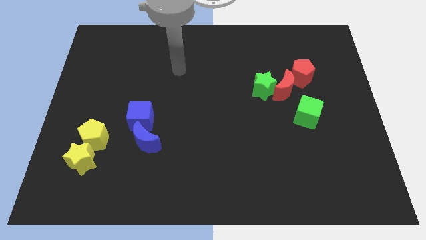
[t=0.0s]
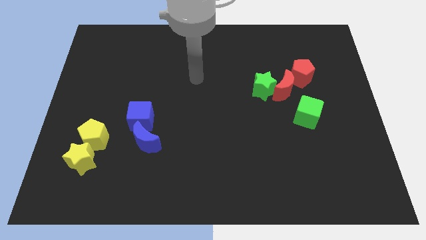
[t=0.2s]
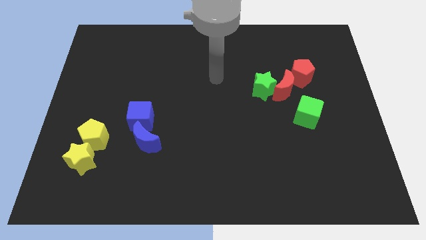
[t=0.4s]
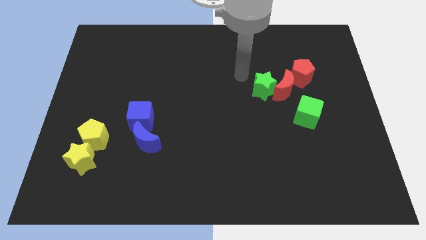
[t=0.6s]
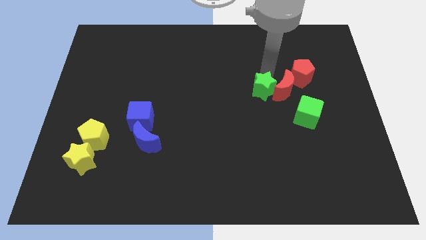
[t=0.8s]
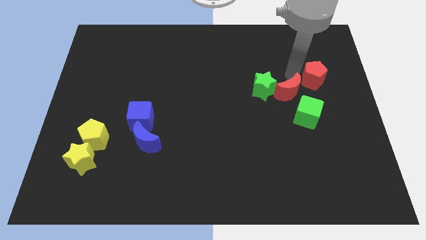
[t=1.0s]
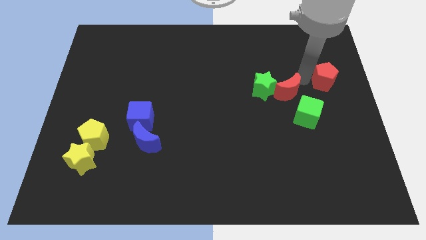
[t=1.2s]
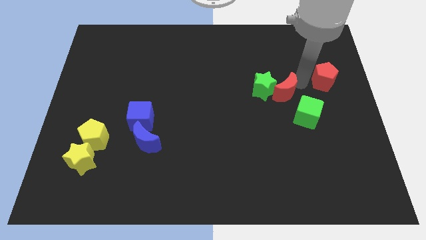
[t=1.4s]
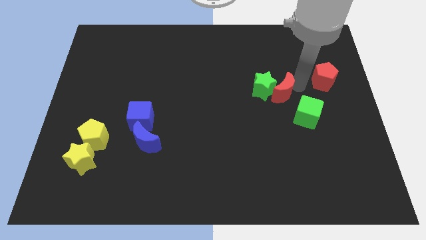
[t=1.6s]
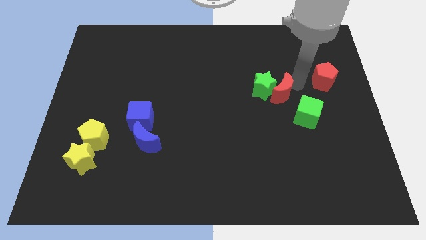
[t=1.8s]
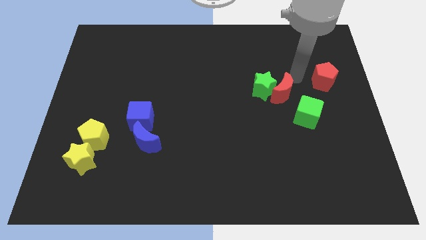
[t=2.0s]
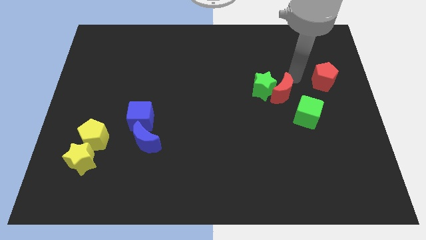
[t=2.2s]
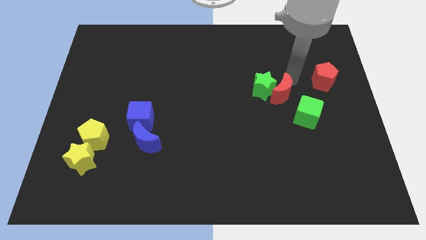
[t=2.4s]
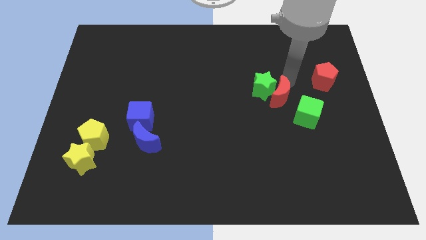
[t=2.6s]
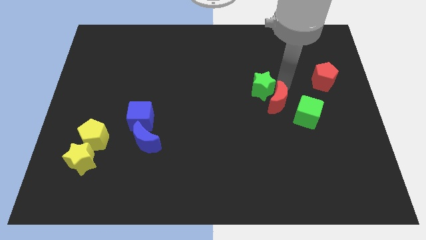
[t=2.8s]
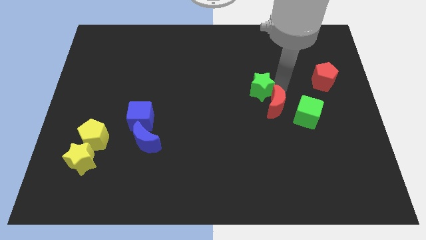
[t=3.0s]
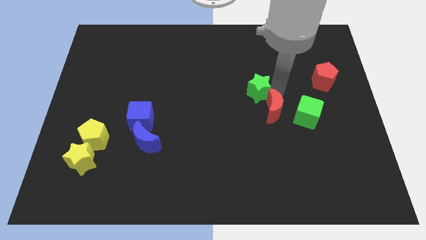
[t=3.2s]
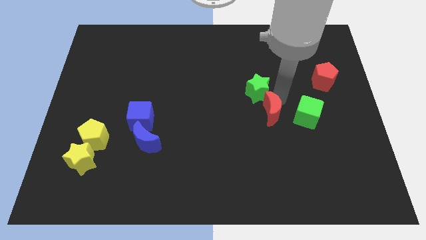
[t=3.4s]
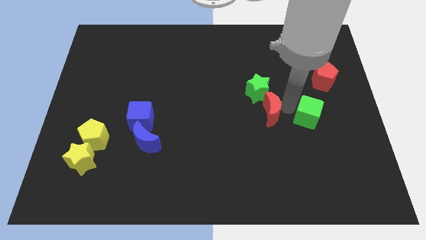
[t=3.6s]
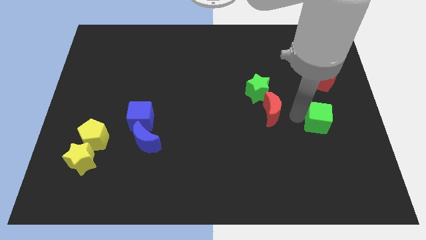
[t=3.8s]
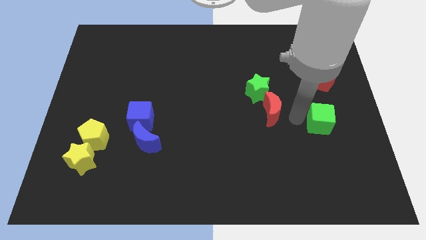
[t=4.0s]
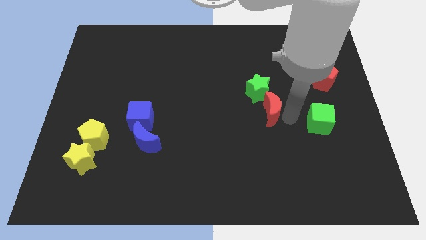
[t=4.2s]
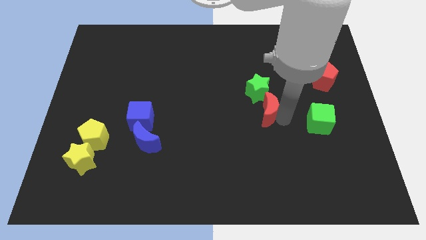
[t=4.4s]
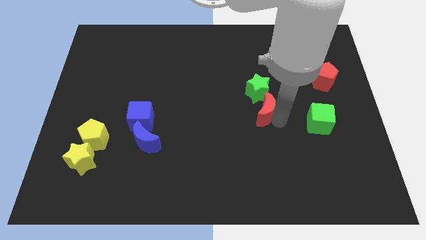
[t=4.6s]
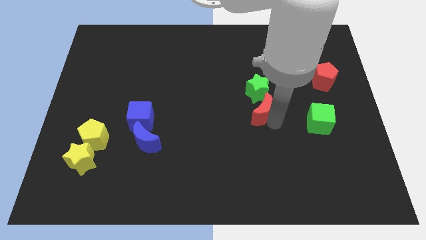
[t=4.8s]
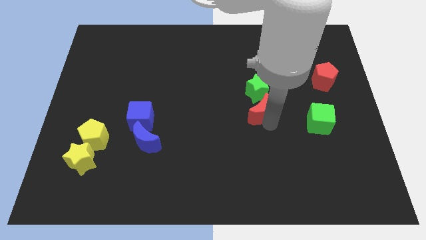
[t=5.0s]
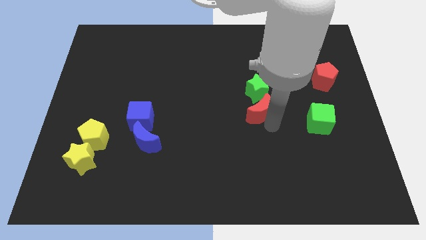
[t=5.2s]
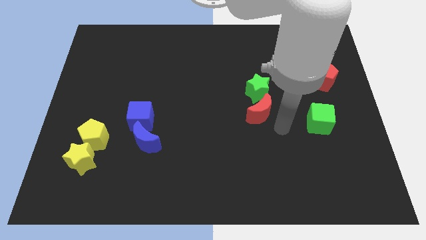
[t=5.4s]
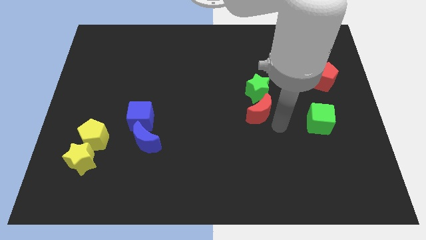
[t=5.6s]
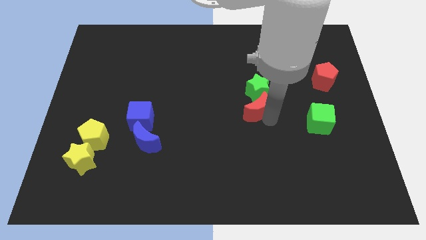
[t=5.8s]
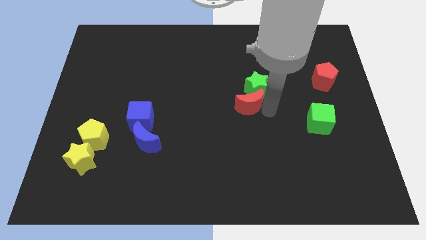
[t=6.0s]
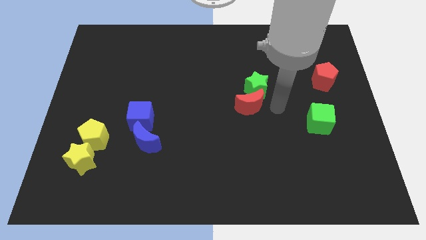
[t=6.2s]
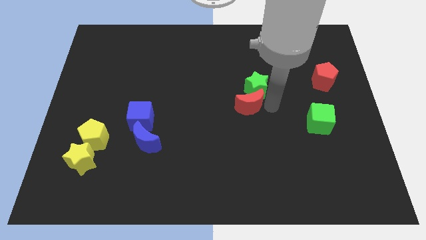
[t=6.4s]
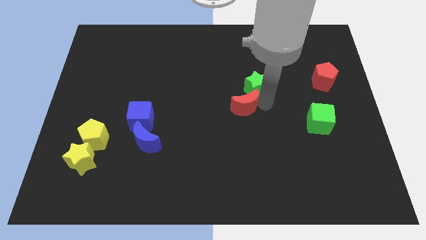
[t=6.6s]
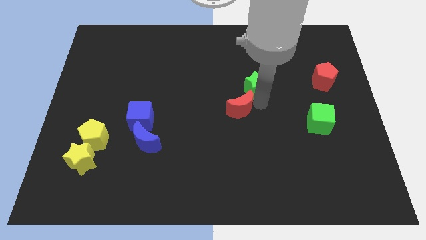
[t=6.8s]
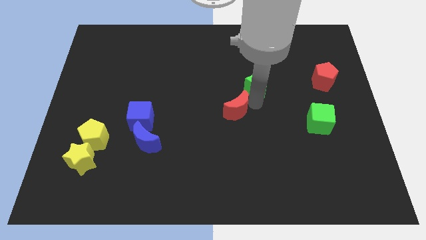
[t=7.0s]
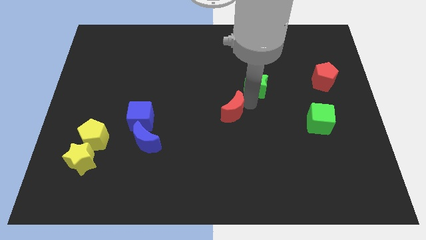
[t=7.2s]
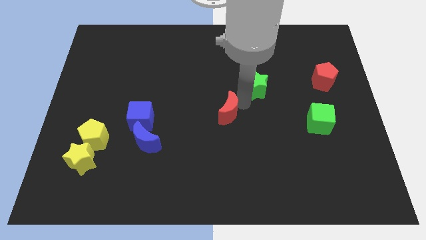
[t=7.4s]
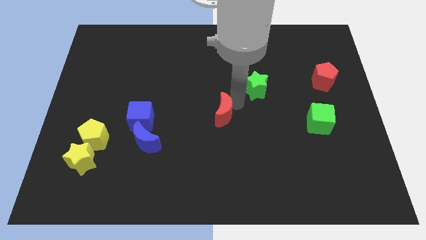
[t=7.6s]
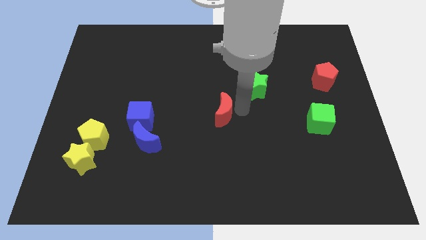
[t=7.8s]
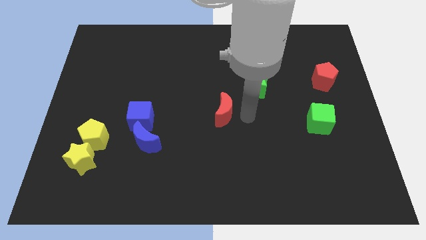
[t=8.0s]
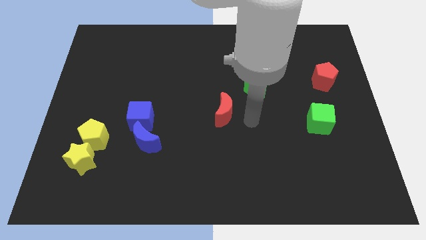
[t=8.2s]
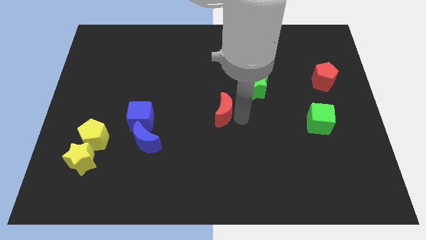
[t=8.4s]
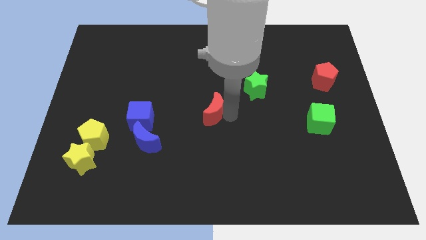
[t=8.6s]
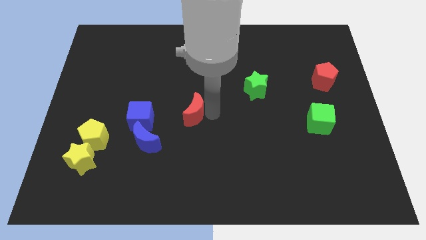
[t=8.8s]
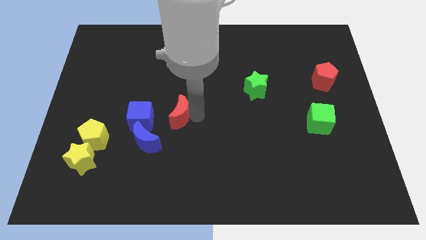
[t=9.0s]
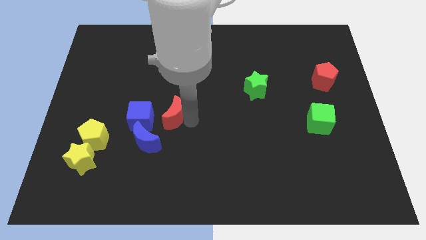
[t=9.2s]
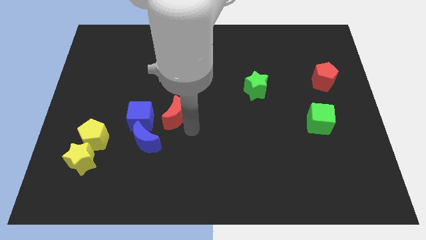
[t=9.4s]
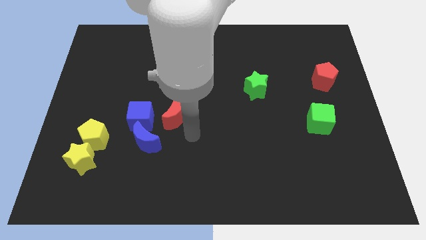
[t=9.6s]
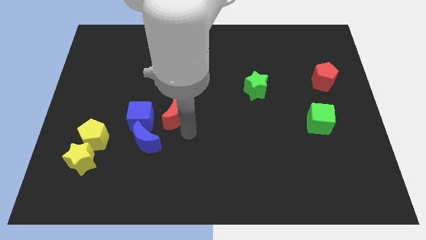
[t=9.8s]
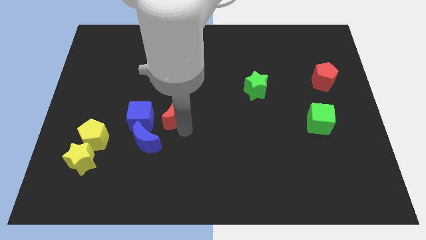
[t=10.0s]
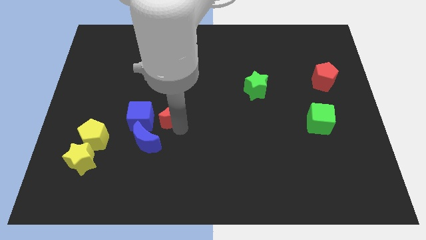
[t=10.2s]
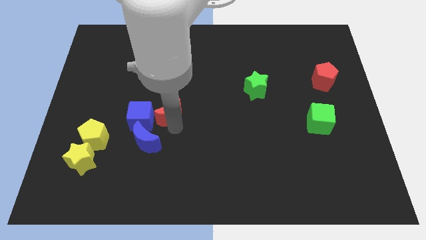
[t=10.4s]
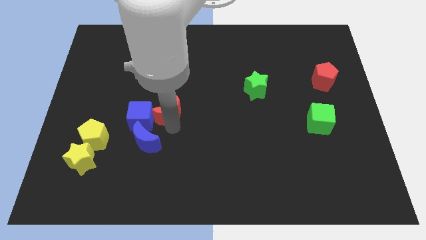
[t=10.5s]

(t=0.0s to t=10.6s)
slide the red moon to the top of the blue moon

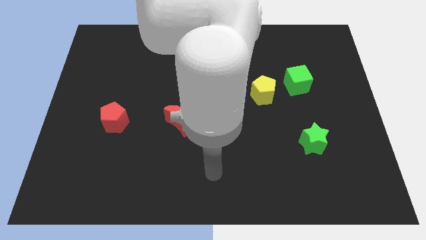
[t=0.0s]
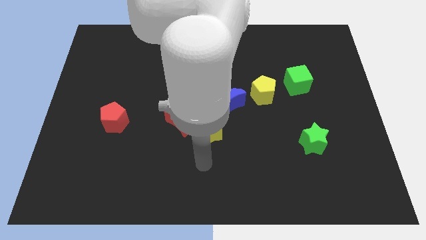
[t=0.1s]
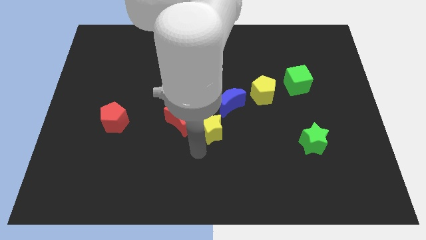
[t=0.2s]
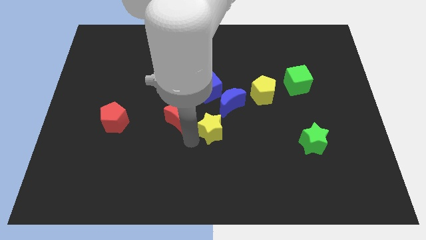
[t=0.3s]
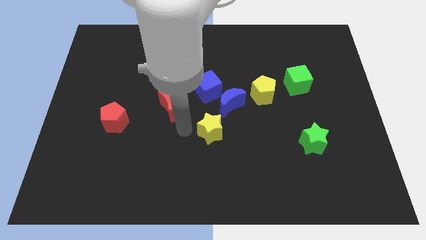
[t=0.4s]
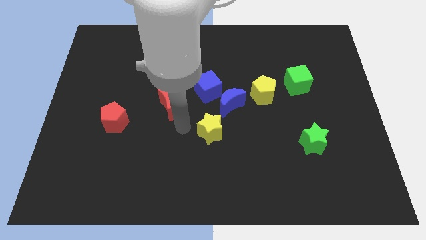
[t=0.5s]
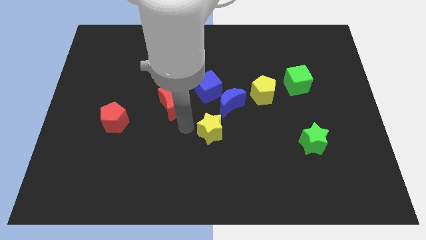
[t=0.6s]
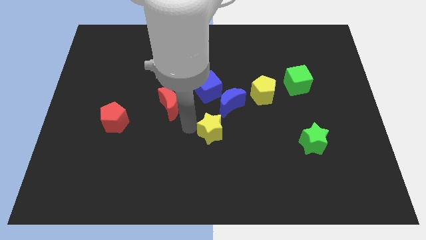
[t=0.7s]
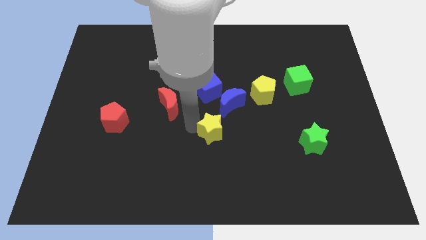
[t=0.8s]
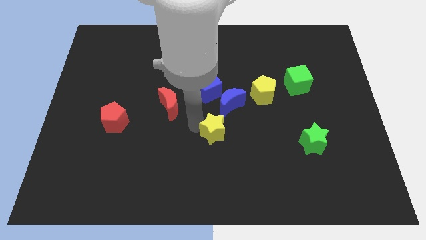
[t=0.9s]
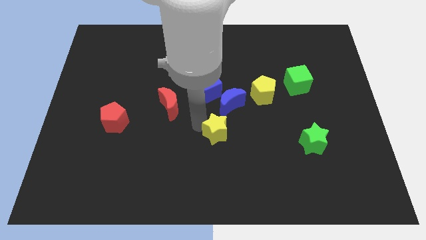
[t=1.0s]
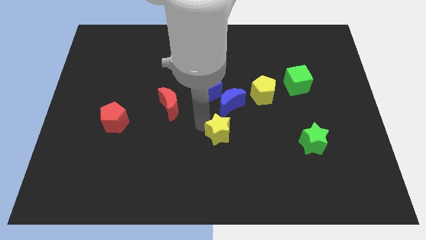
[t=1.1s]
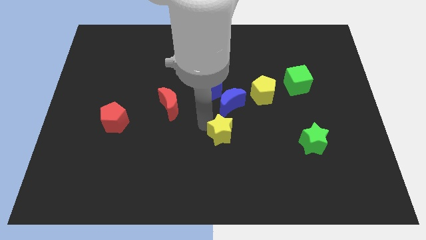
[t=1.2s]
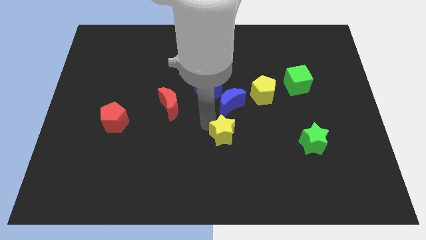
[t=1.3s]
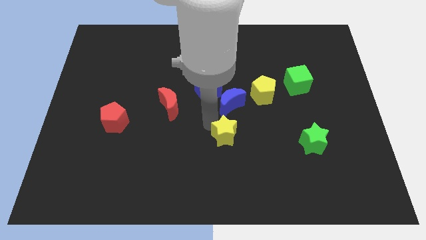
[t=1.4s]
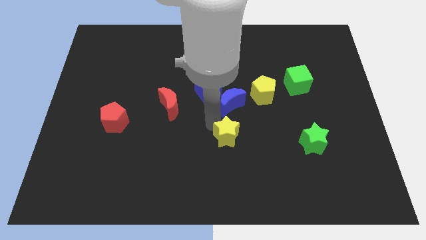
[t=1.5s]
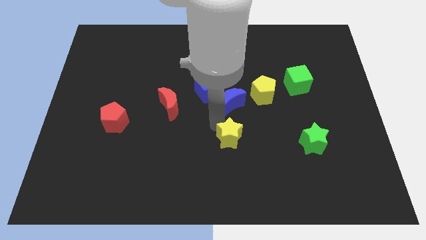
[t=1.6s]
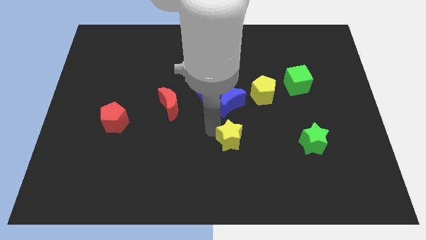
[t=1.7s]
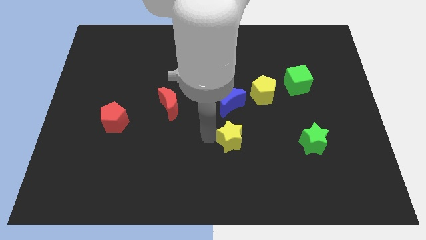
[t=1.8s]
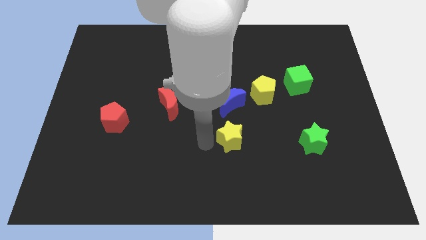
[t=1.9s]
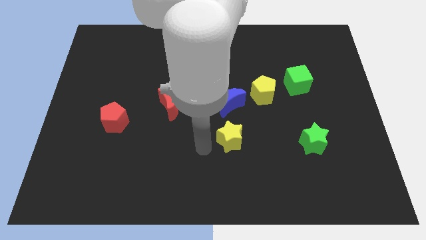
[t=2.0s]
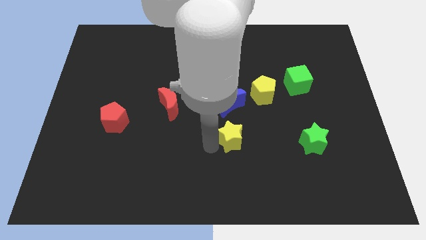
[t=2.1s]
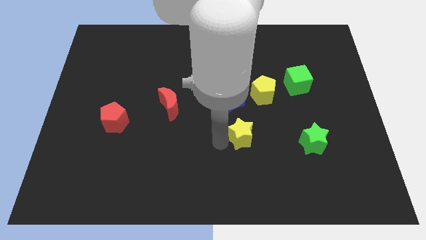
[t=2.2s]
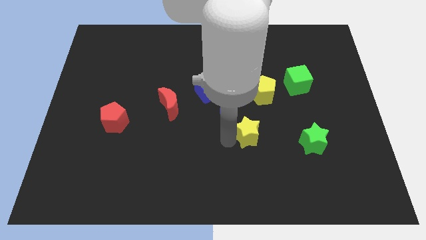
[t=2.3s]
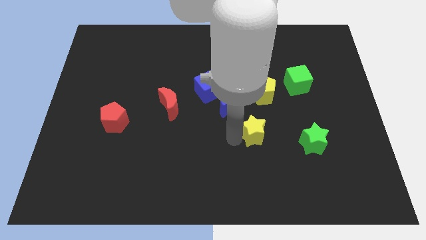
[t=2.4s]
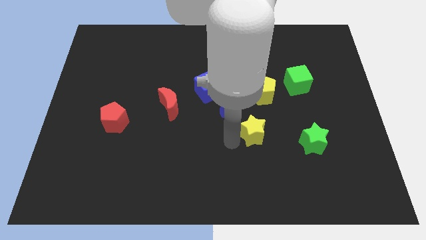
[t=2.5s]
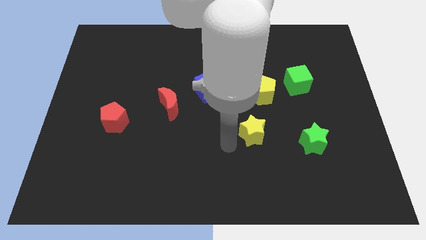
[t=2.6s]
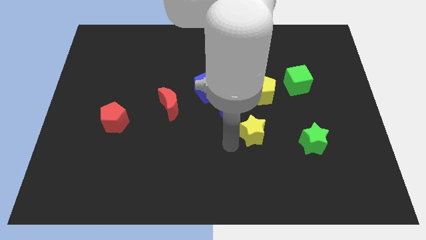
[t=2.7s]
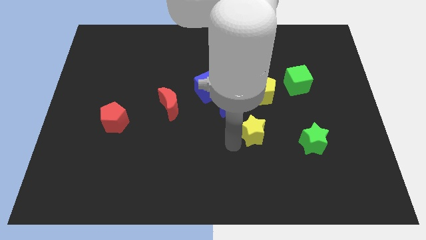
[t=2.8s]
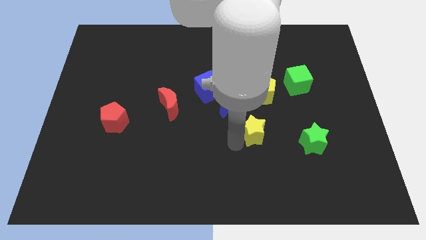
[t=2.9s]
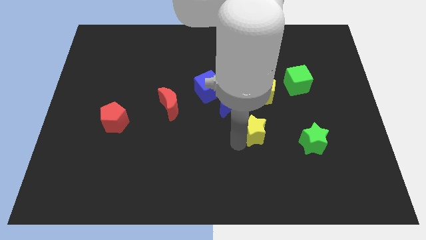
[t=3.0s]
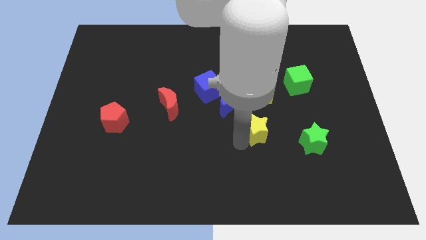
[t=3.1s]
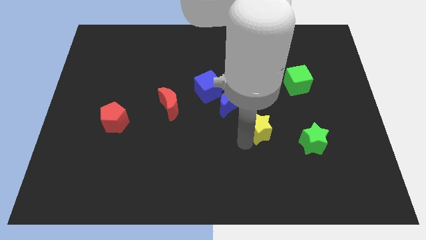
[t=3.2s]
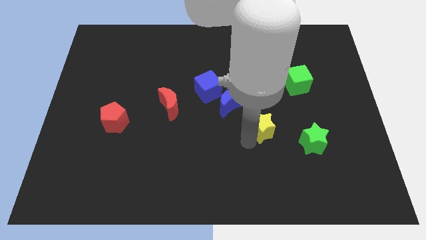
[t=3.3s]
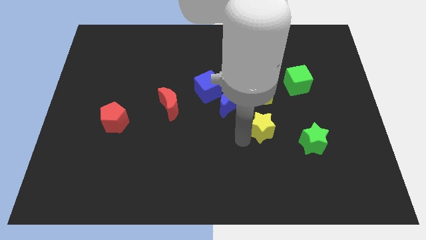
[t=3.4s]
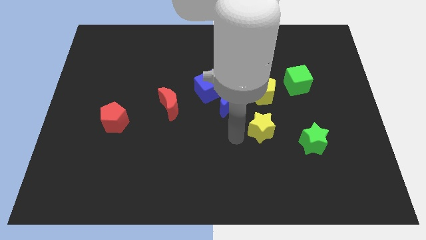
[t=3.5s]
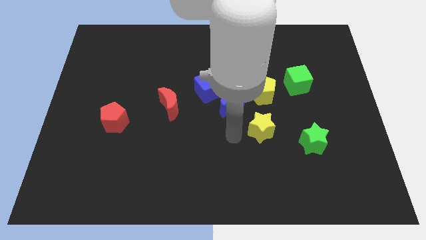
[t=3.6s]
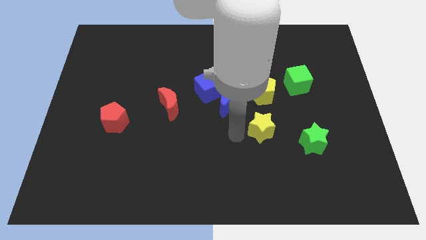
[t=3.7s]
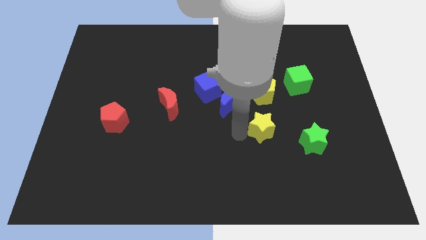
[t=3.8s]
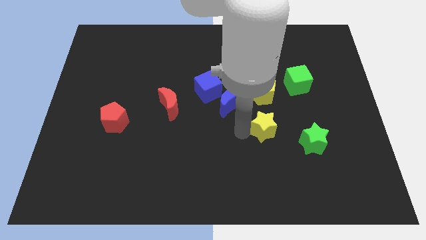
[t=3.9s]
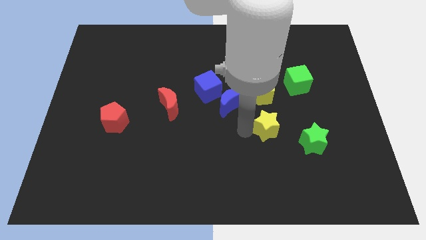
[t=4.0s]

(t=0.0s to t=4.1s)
push the yellow star to the top left side of the green star
